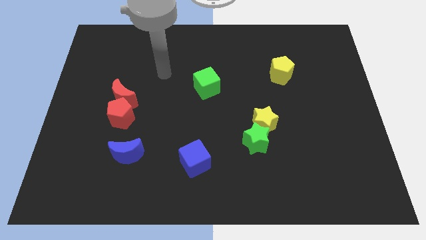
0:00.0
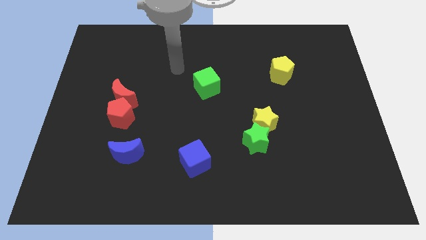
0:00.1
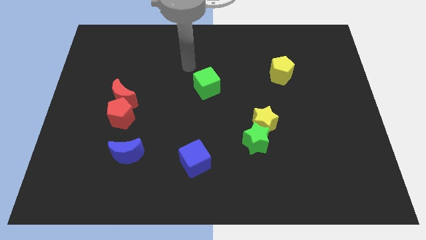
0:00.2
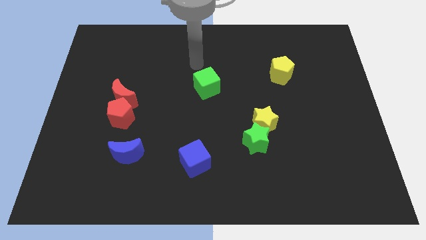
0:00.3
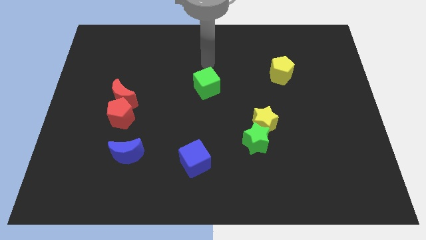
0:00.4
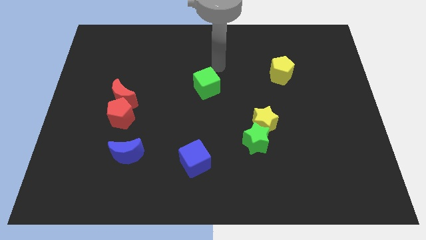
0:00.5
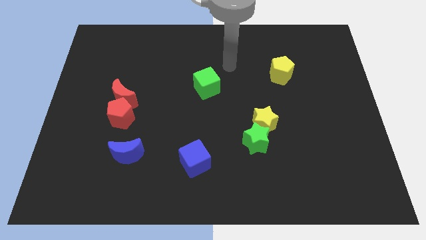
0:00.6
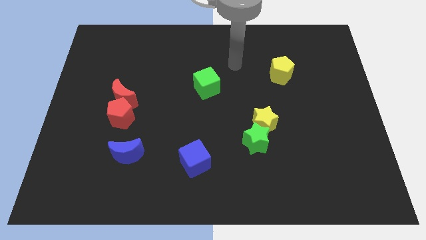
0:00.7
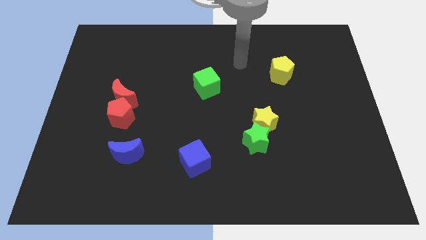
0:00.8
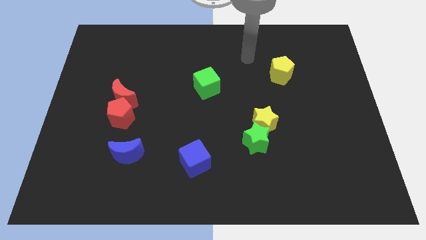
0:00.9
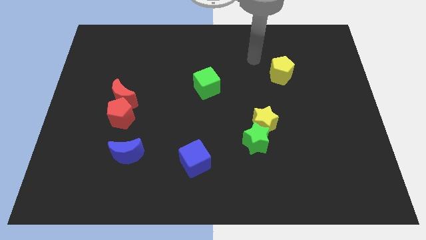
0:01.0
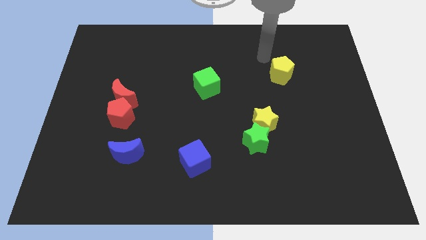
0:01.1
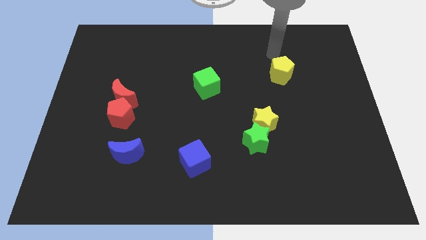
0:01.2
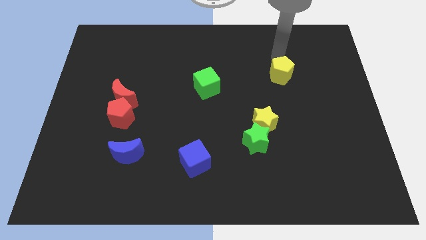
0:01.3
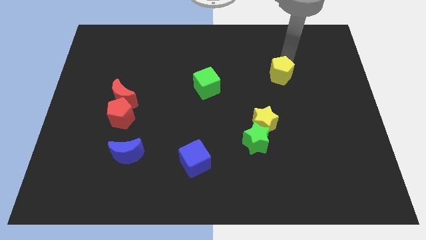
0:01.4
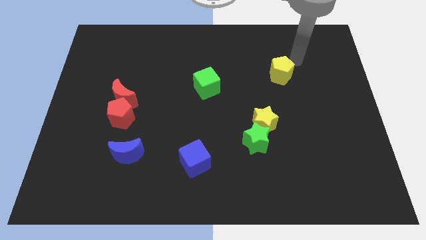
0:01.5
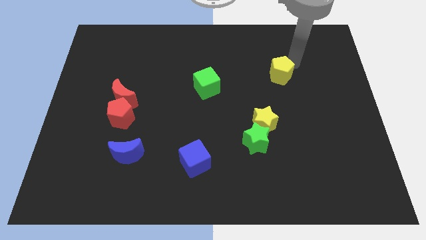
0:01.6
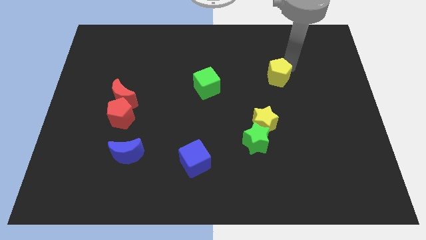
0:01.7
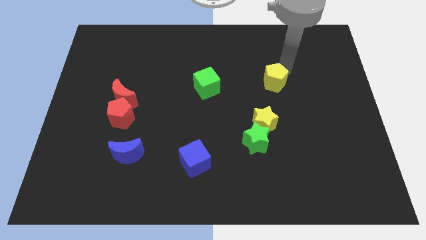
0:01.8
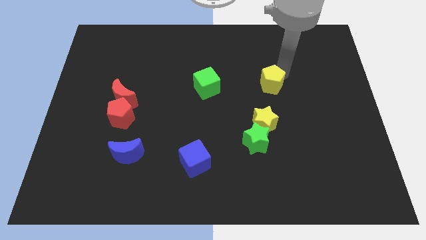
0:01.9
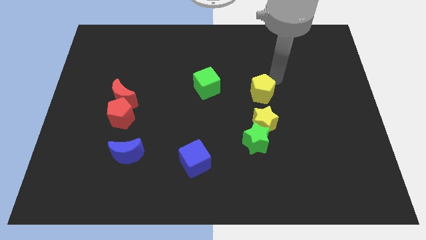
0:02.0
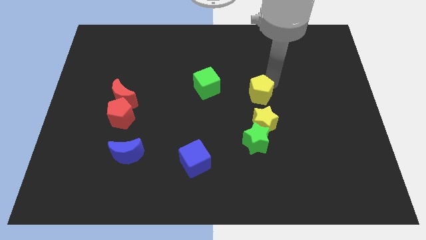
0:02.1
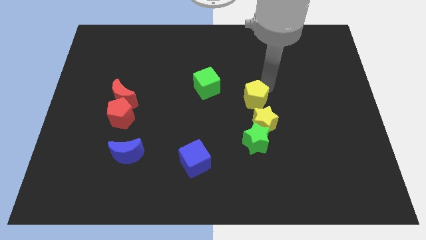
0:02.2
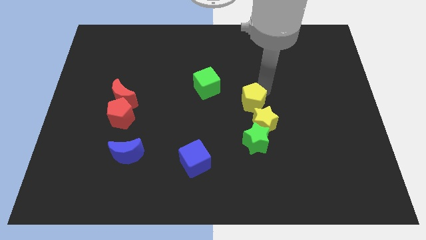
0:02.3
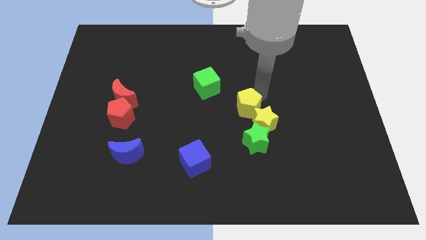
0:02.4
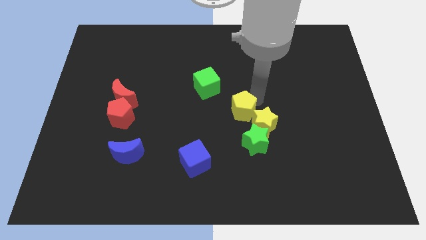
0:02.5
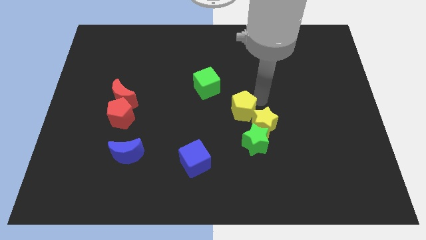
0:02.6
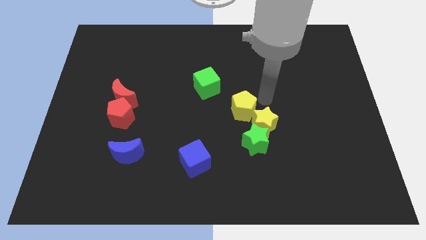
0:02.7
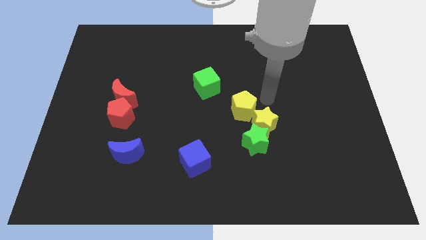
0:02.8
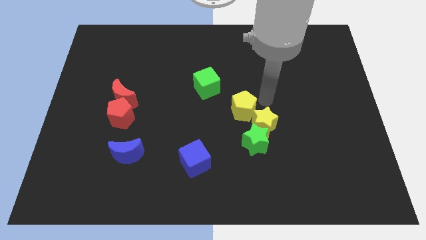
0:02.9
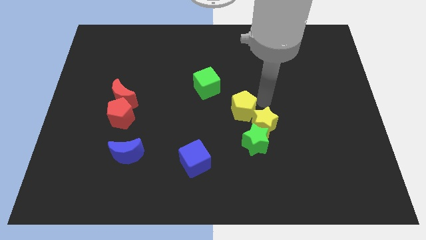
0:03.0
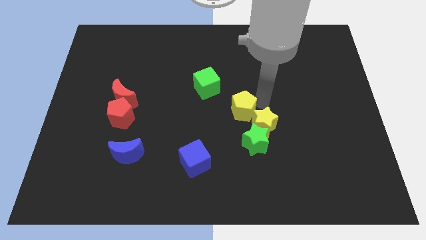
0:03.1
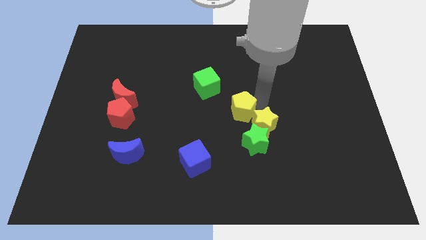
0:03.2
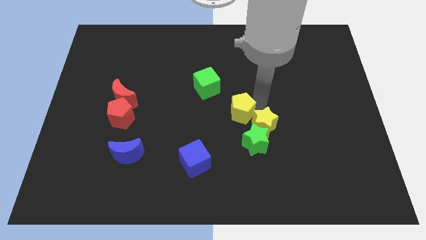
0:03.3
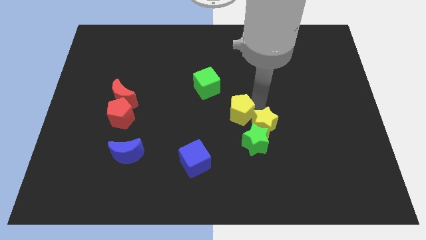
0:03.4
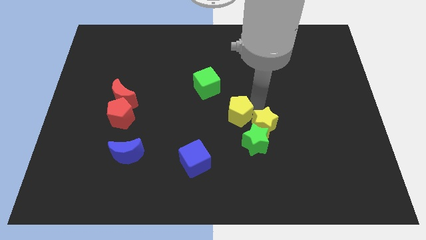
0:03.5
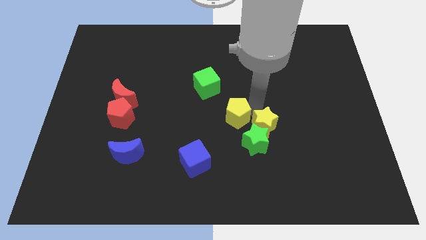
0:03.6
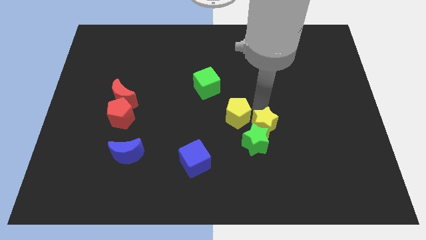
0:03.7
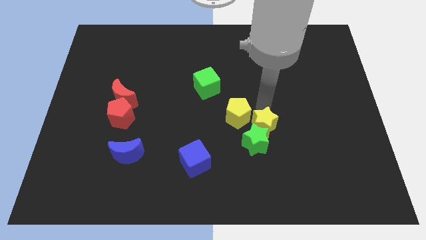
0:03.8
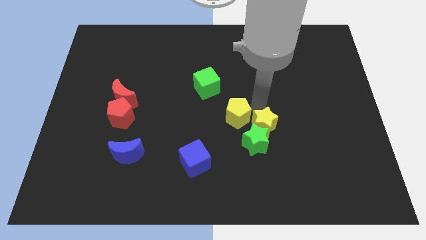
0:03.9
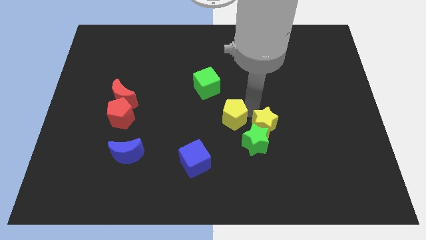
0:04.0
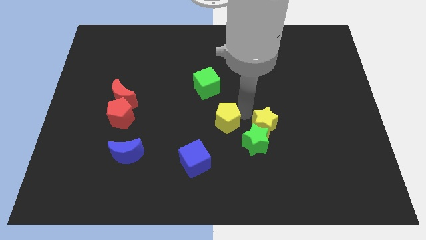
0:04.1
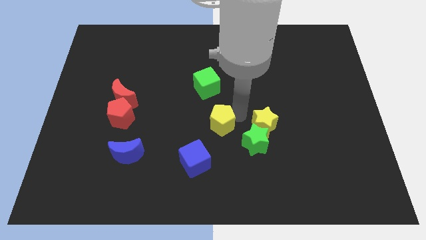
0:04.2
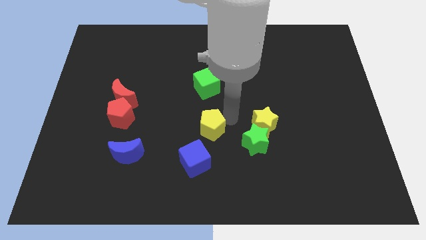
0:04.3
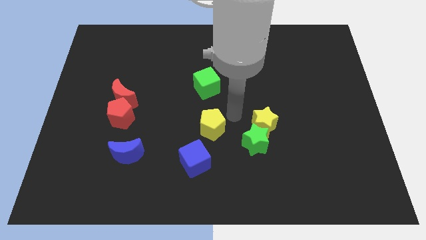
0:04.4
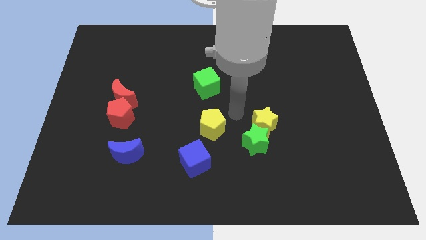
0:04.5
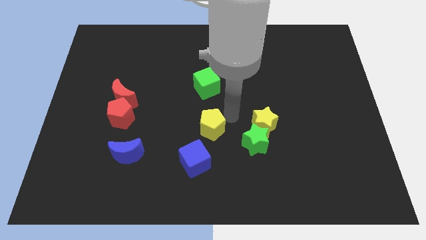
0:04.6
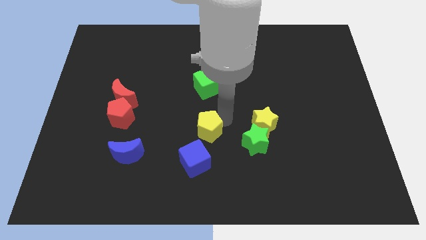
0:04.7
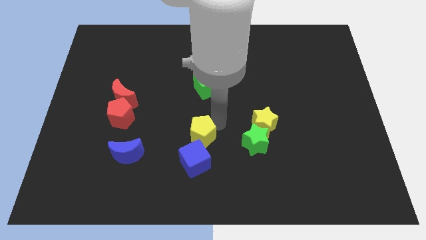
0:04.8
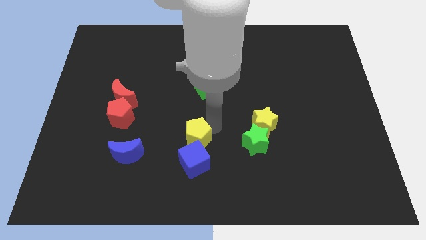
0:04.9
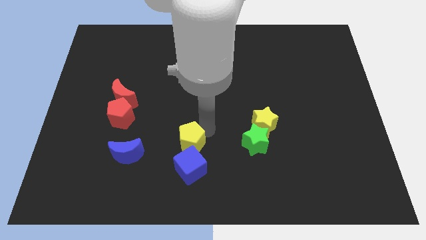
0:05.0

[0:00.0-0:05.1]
slide the yellow pentagon to the right side of the blue moon

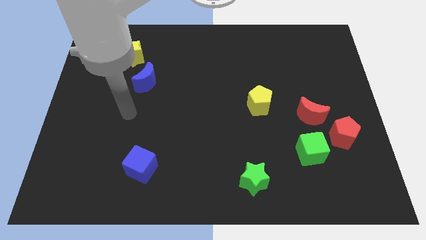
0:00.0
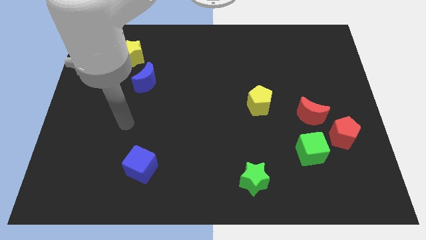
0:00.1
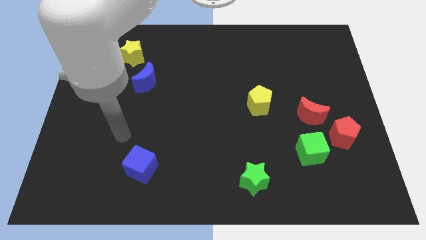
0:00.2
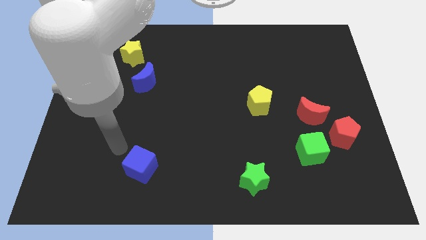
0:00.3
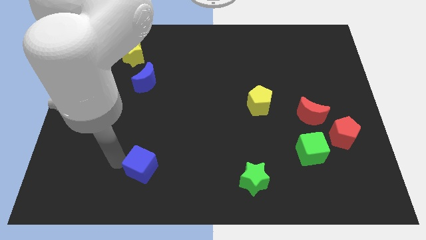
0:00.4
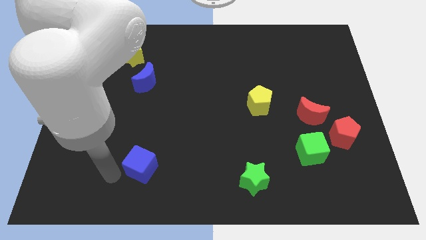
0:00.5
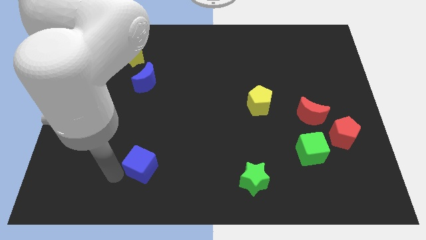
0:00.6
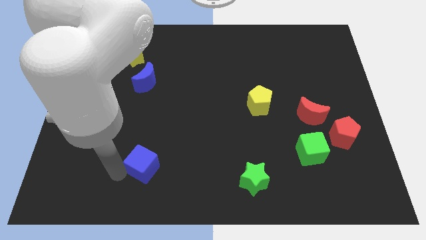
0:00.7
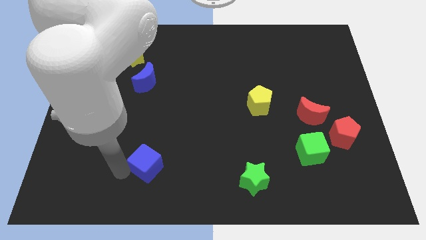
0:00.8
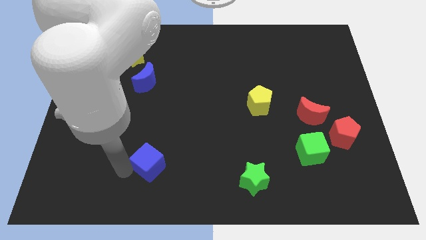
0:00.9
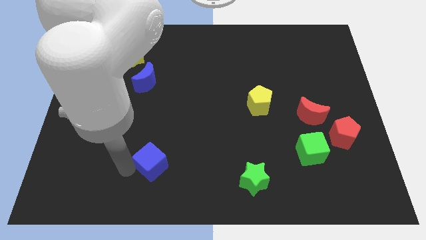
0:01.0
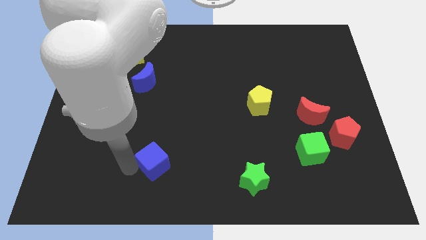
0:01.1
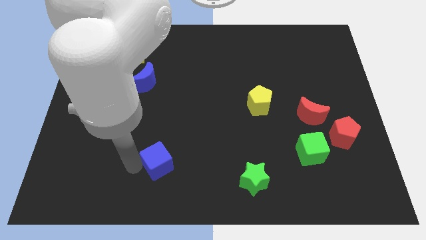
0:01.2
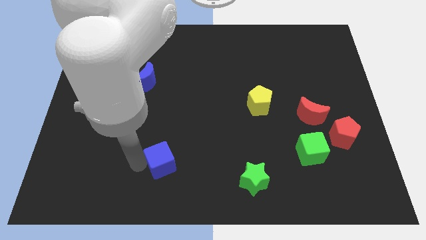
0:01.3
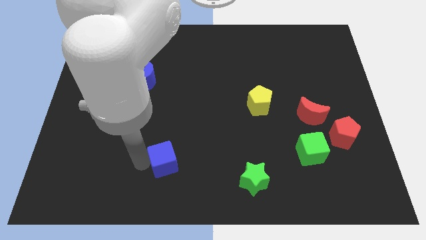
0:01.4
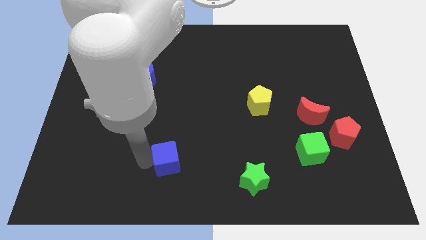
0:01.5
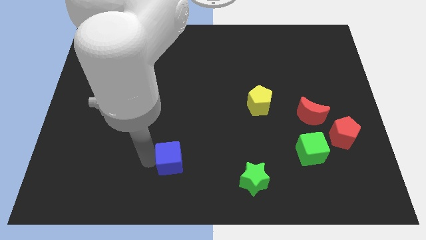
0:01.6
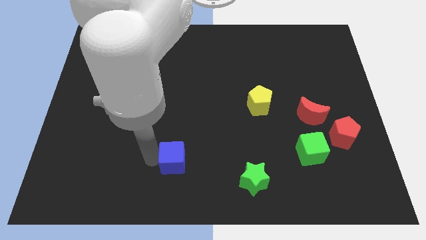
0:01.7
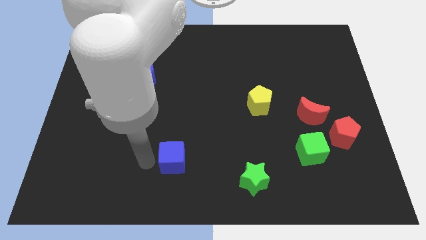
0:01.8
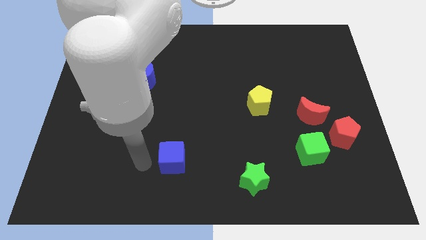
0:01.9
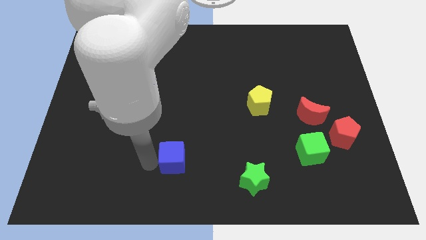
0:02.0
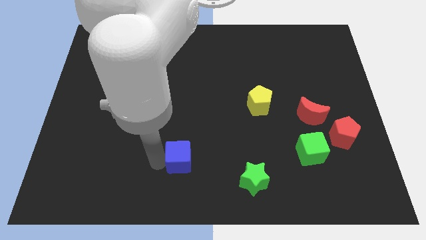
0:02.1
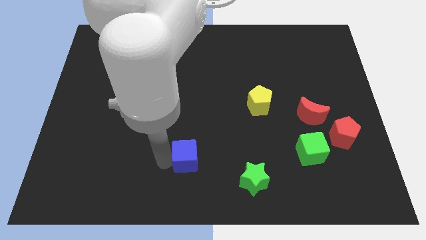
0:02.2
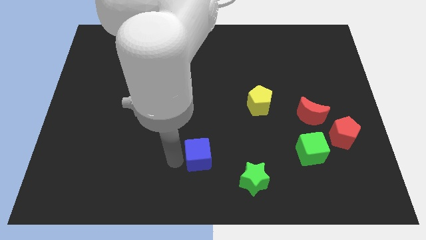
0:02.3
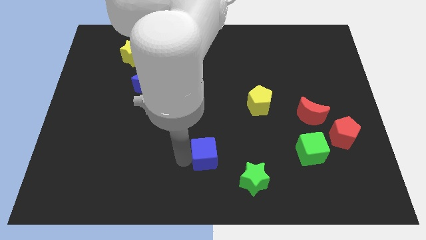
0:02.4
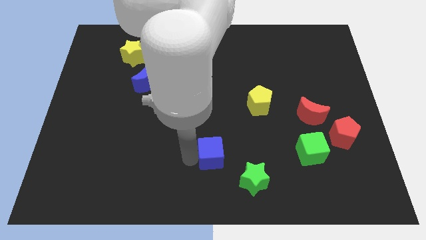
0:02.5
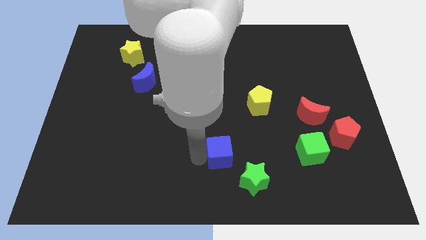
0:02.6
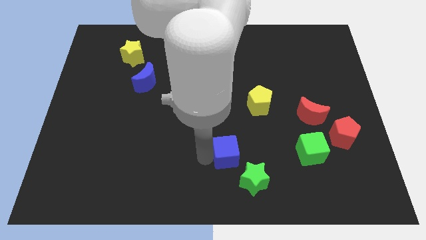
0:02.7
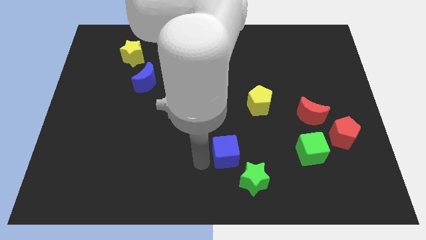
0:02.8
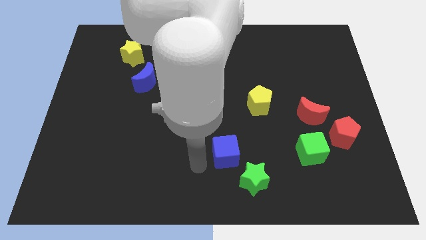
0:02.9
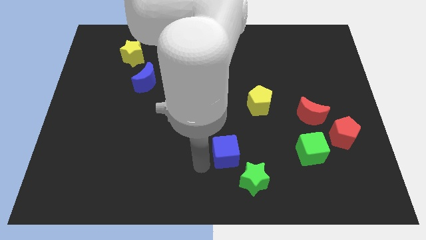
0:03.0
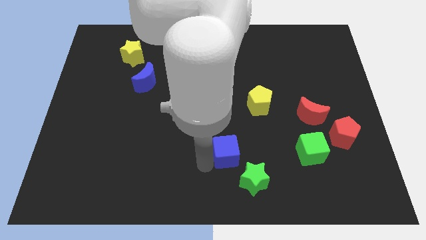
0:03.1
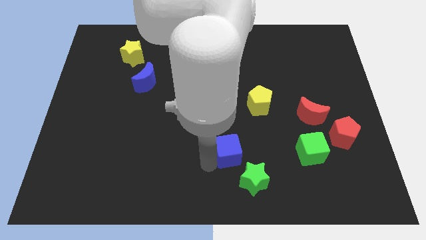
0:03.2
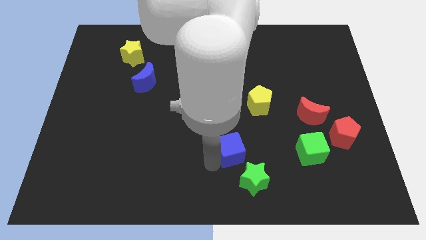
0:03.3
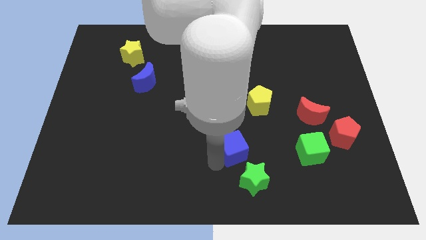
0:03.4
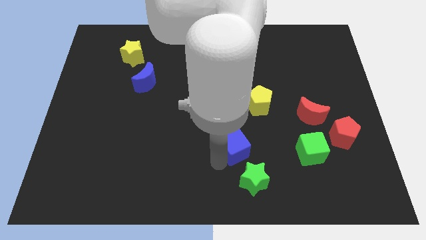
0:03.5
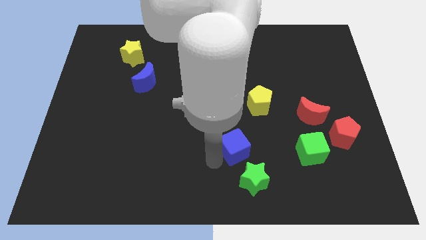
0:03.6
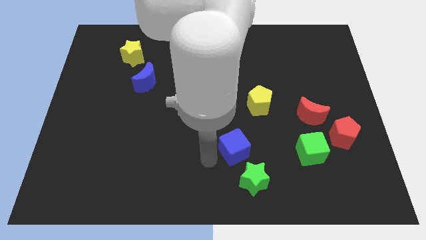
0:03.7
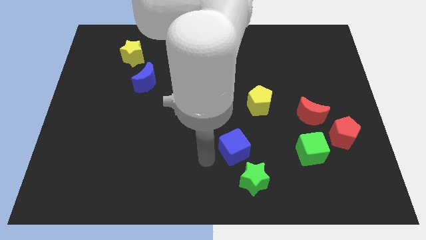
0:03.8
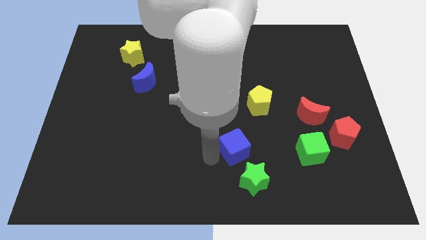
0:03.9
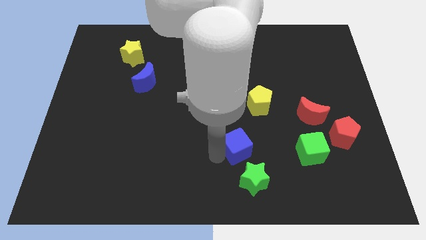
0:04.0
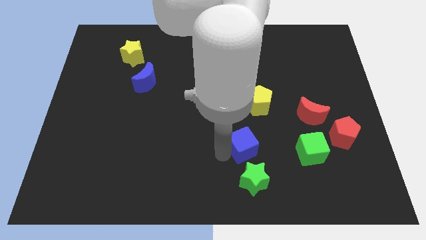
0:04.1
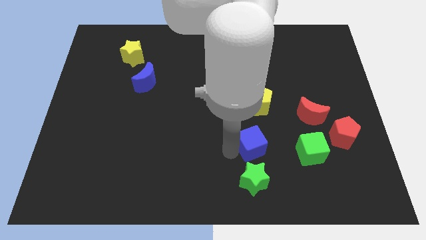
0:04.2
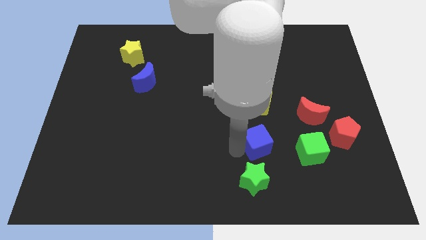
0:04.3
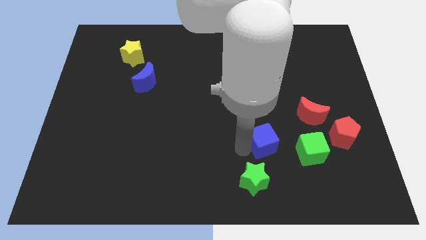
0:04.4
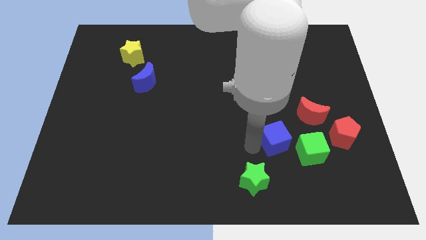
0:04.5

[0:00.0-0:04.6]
push the blue cube to the left side of the red pentagon
